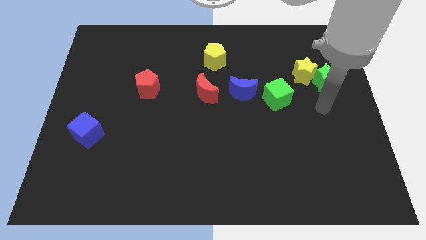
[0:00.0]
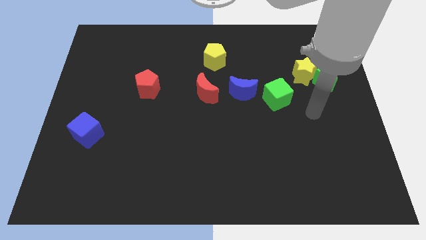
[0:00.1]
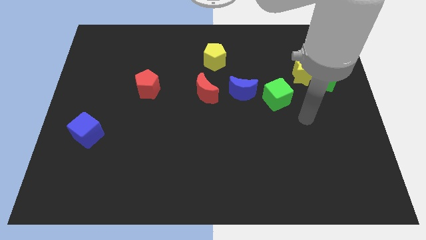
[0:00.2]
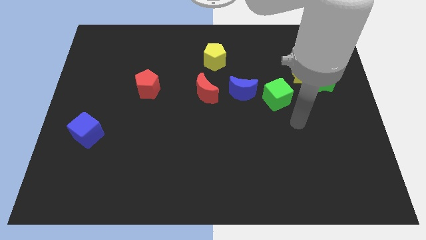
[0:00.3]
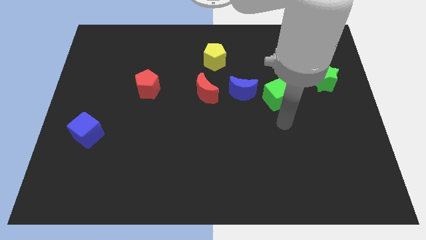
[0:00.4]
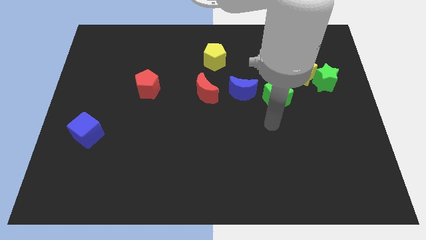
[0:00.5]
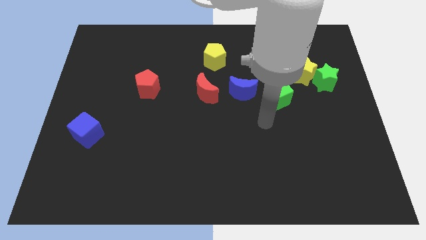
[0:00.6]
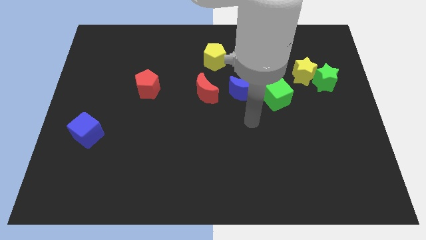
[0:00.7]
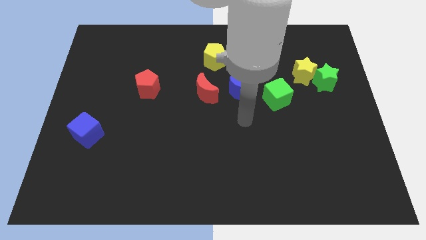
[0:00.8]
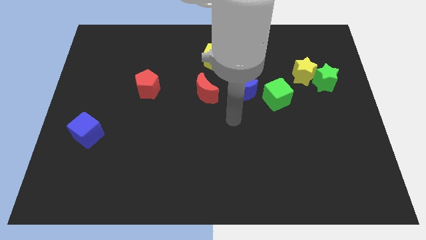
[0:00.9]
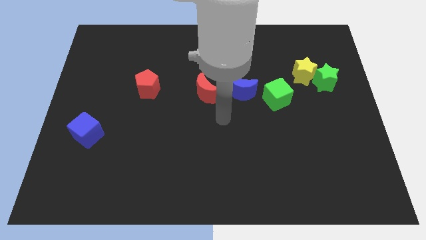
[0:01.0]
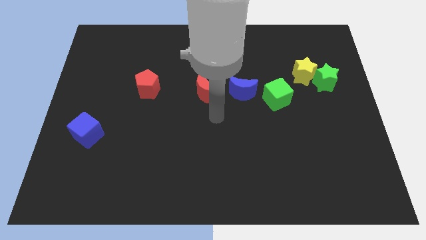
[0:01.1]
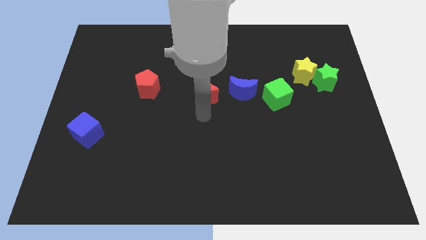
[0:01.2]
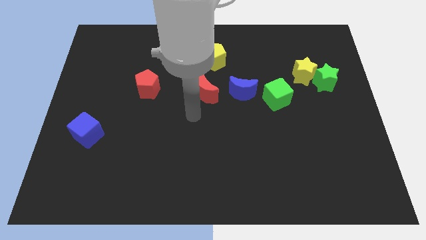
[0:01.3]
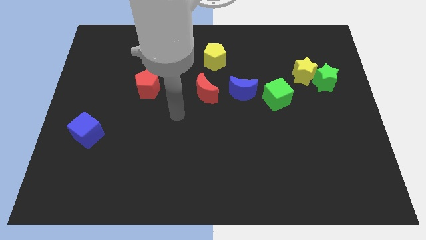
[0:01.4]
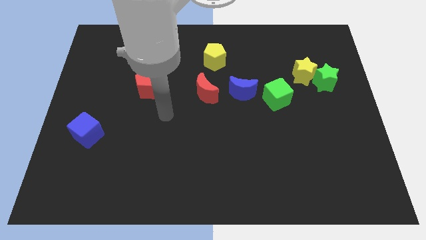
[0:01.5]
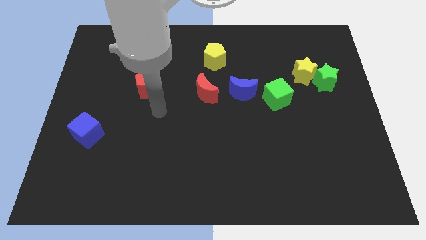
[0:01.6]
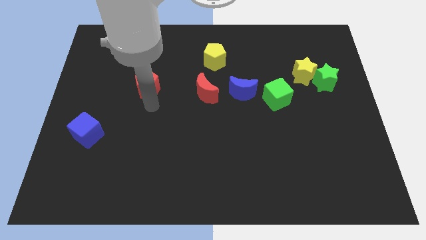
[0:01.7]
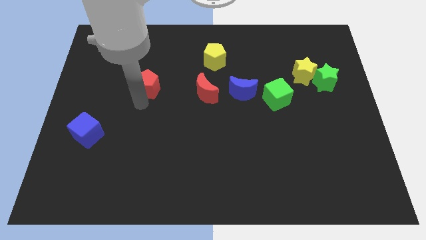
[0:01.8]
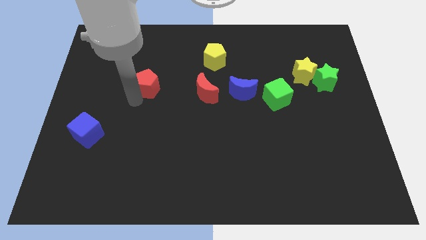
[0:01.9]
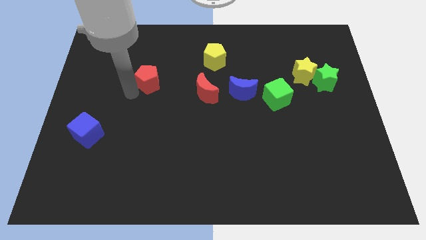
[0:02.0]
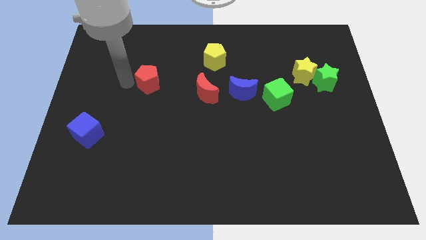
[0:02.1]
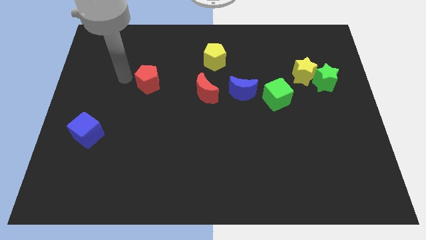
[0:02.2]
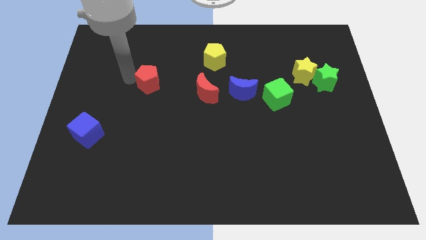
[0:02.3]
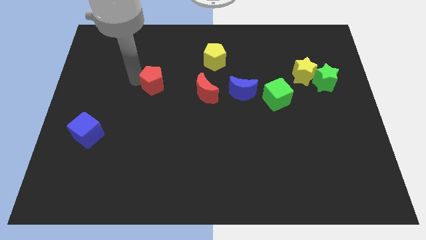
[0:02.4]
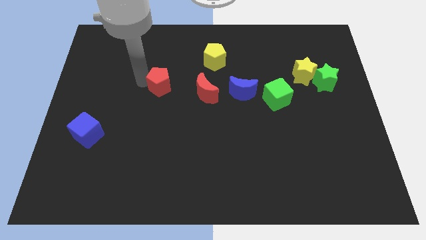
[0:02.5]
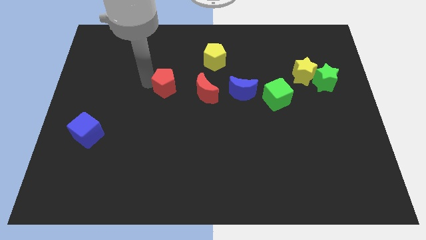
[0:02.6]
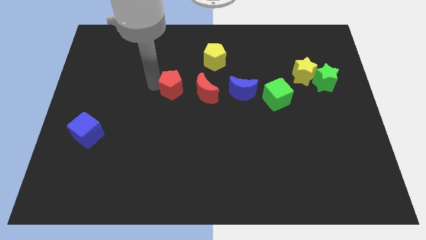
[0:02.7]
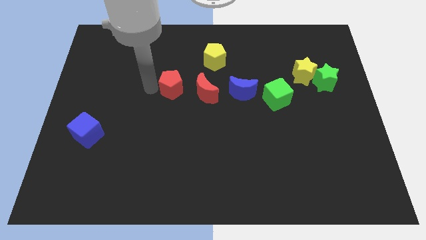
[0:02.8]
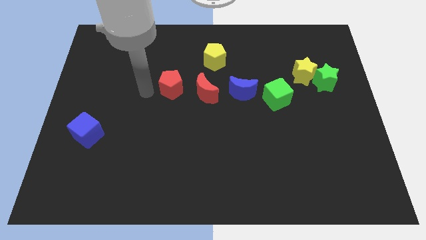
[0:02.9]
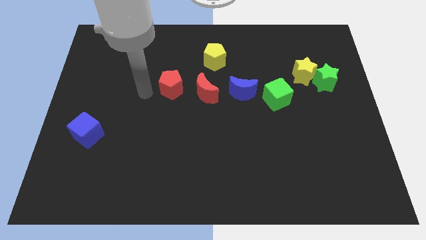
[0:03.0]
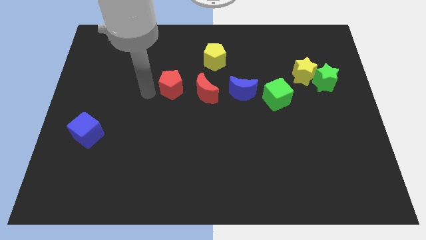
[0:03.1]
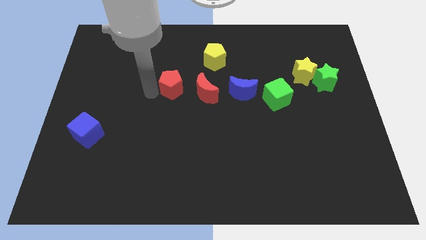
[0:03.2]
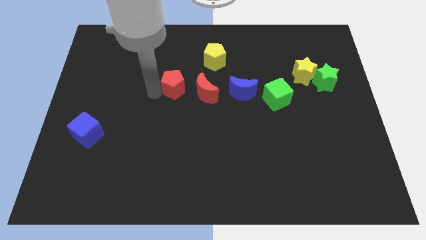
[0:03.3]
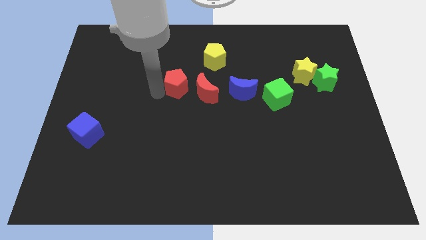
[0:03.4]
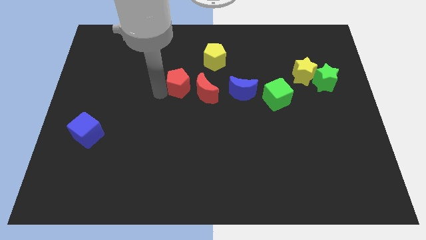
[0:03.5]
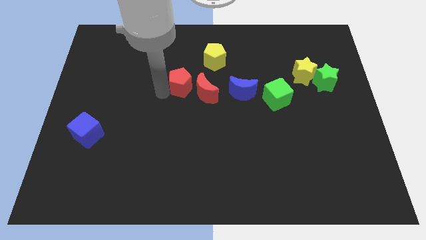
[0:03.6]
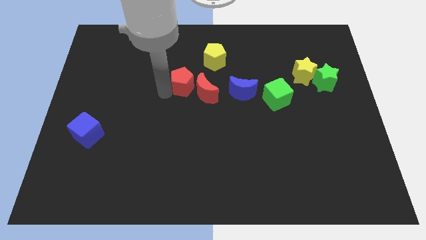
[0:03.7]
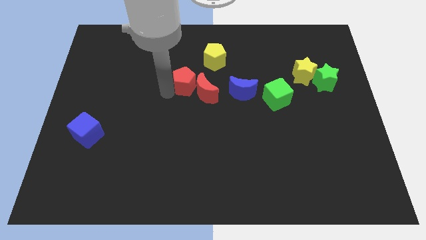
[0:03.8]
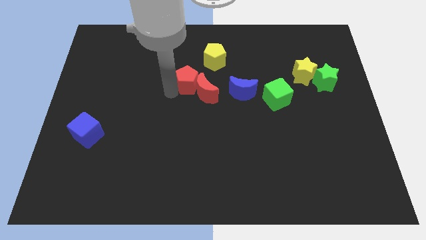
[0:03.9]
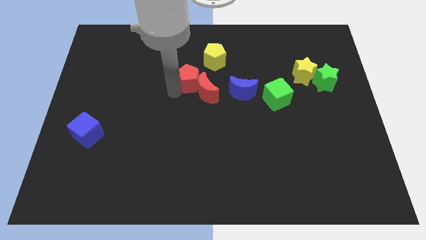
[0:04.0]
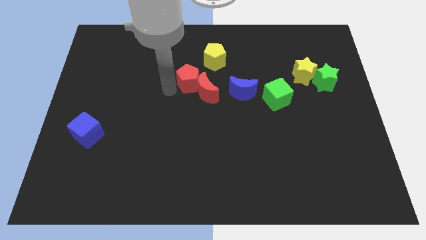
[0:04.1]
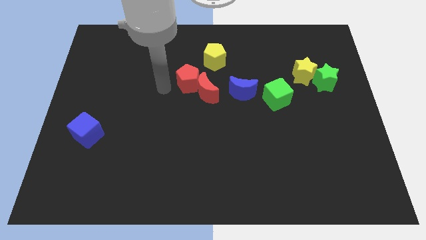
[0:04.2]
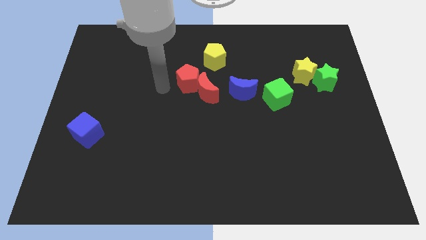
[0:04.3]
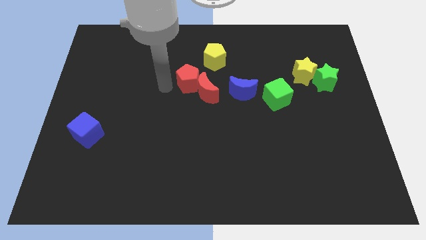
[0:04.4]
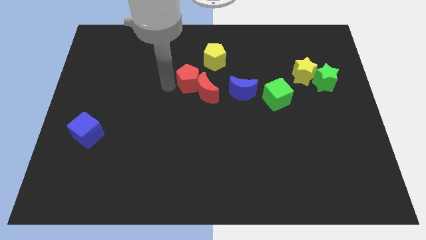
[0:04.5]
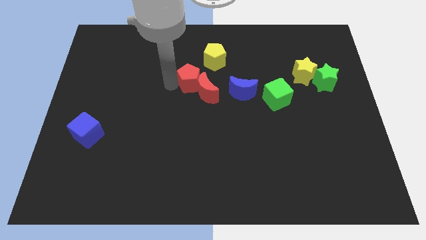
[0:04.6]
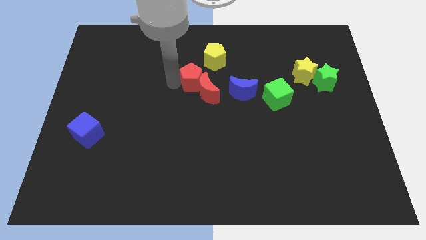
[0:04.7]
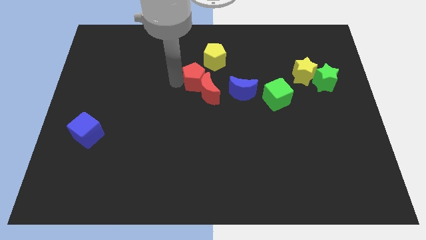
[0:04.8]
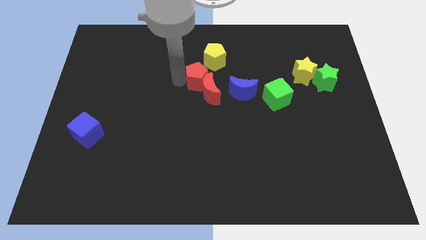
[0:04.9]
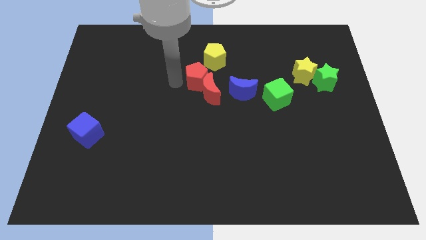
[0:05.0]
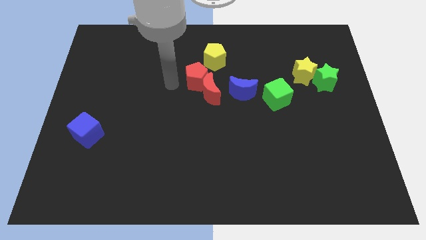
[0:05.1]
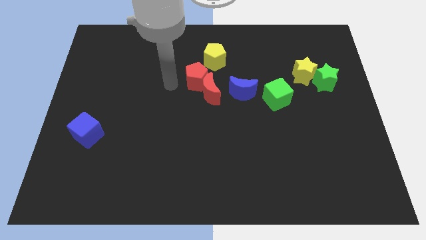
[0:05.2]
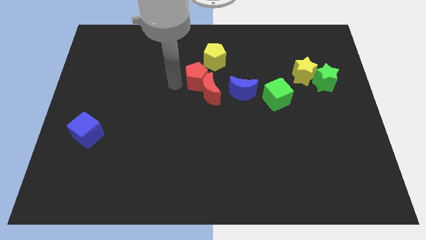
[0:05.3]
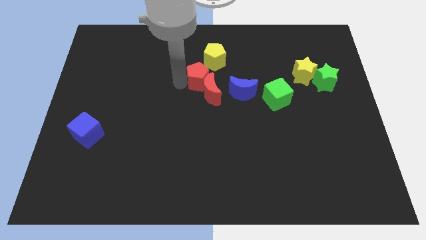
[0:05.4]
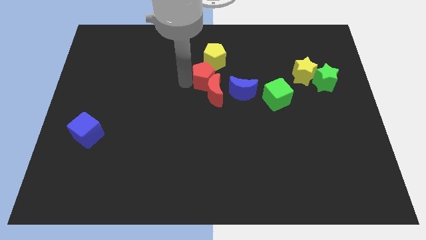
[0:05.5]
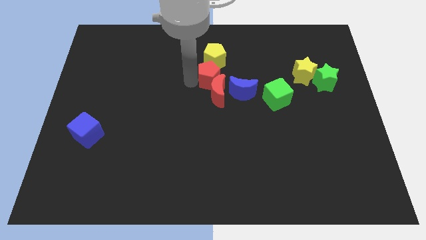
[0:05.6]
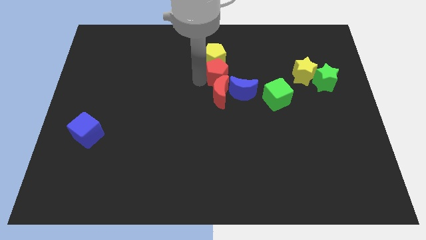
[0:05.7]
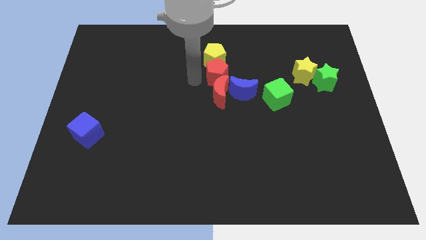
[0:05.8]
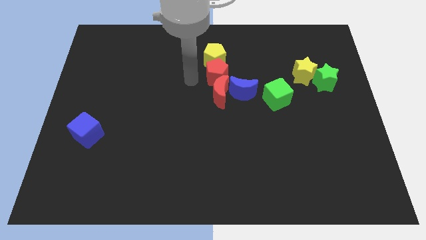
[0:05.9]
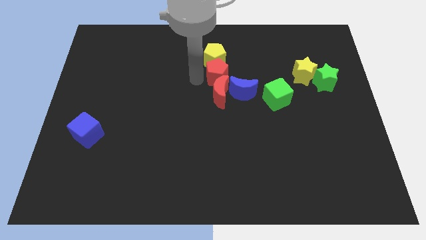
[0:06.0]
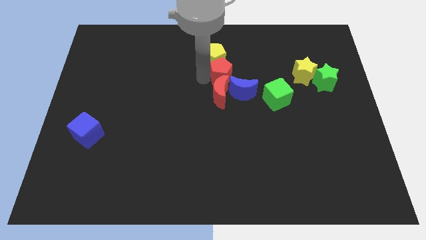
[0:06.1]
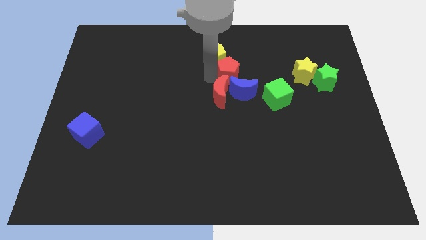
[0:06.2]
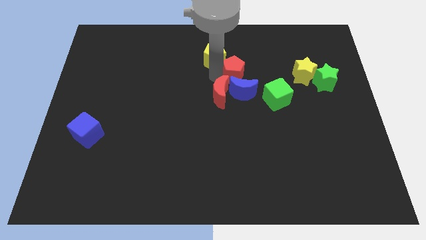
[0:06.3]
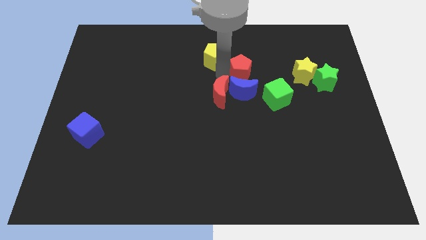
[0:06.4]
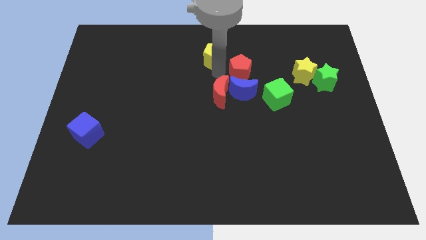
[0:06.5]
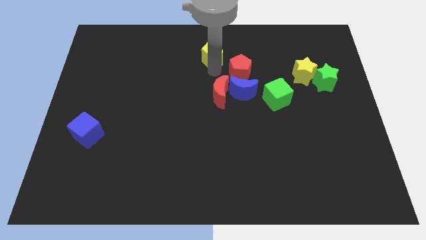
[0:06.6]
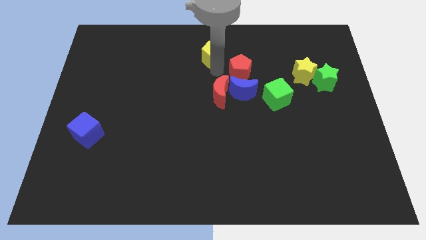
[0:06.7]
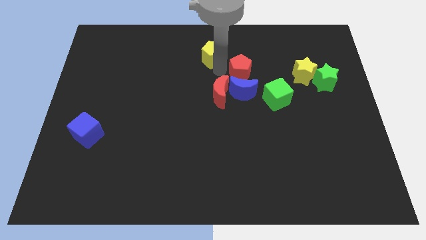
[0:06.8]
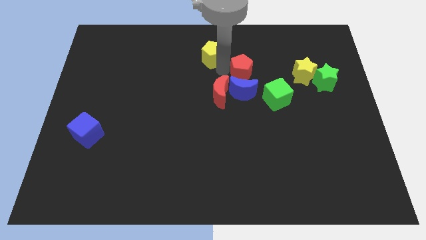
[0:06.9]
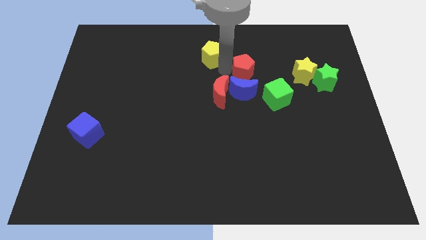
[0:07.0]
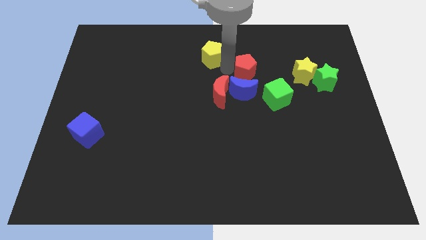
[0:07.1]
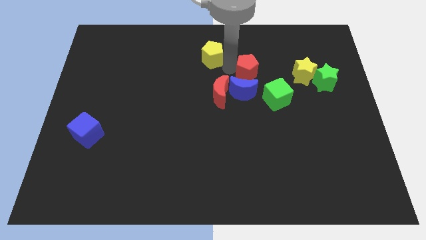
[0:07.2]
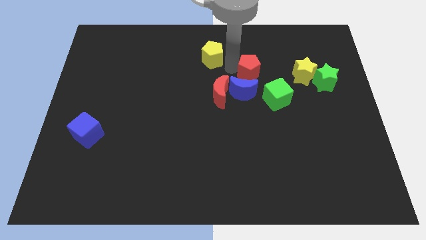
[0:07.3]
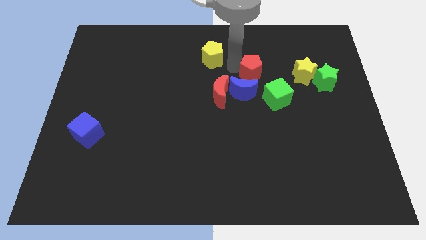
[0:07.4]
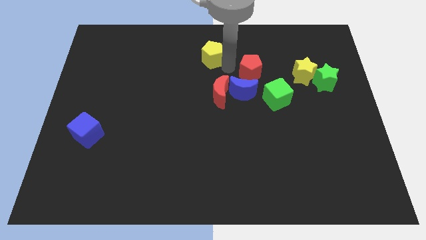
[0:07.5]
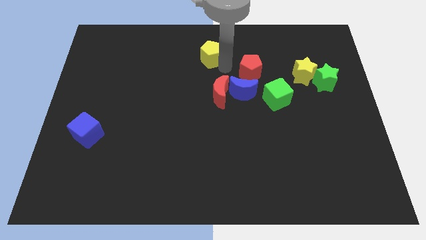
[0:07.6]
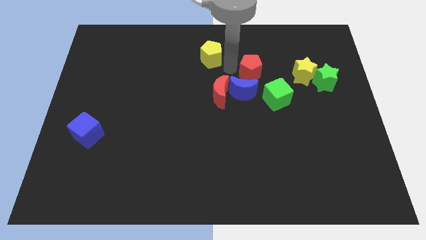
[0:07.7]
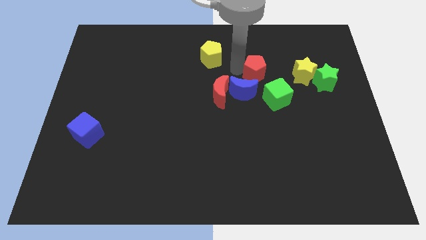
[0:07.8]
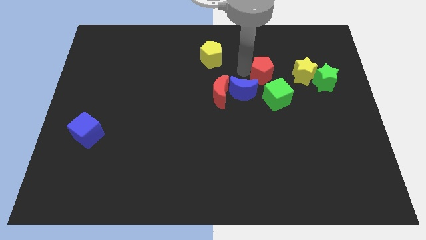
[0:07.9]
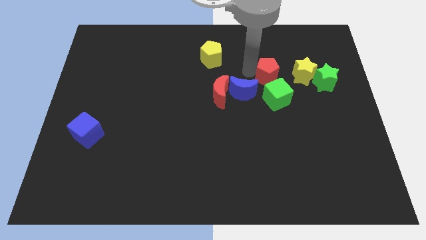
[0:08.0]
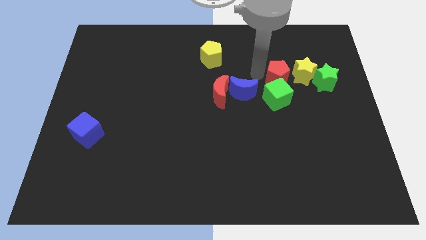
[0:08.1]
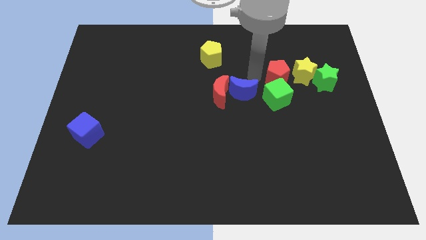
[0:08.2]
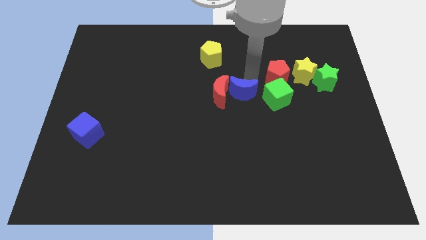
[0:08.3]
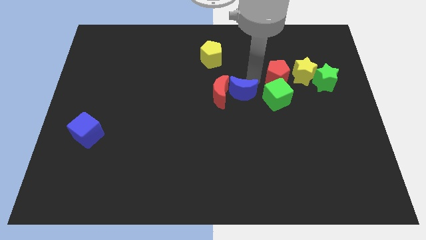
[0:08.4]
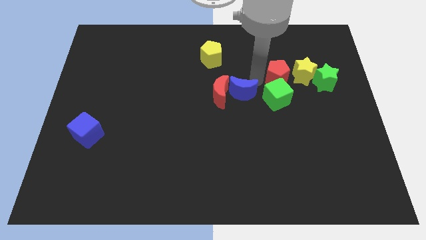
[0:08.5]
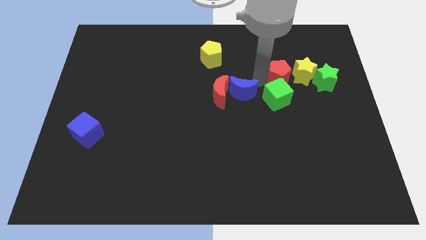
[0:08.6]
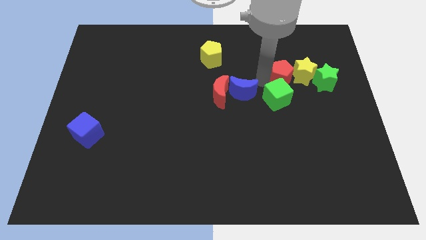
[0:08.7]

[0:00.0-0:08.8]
push the red pentagon to the yellow star
